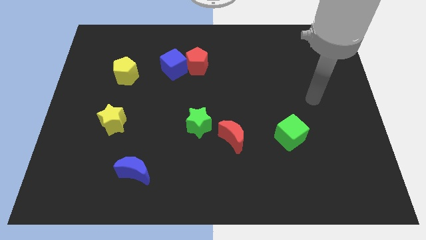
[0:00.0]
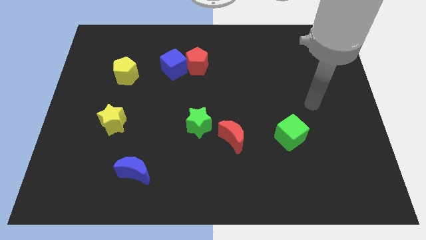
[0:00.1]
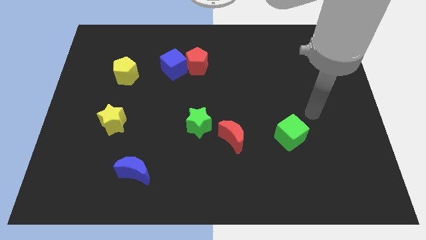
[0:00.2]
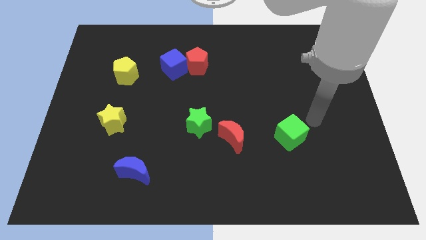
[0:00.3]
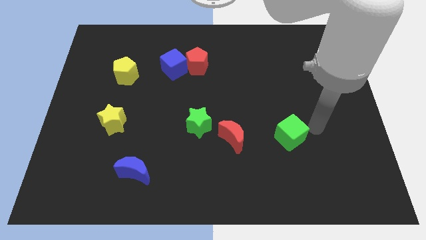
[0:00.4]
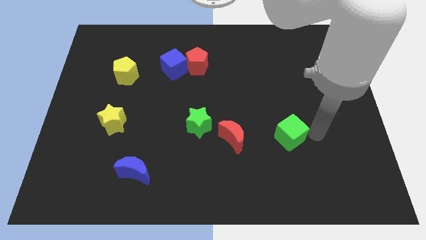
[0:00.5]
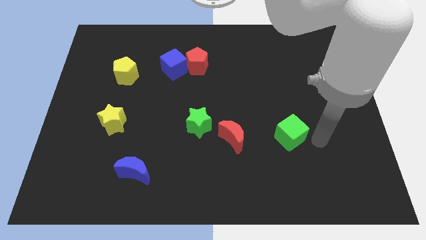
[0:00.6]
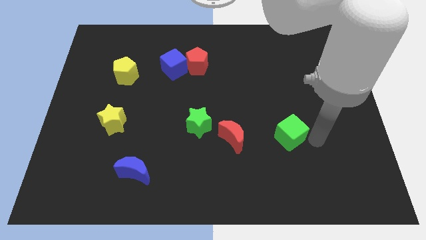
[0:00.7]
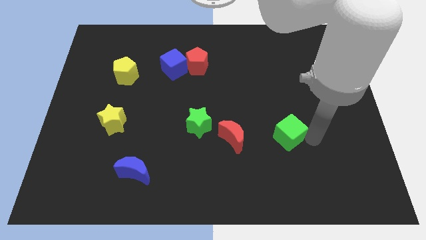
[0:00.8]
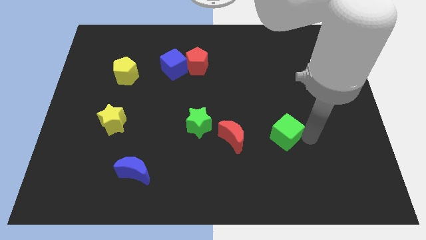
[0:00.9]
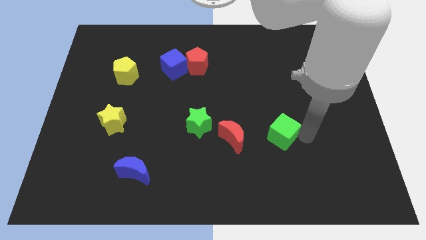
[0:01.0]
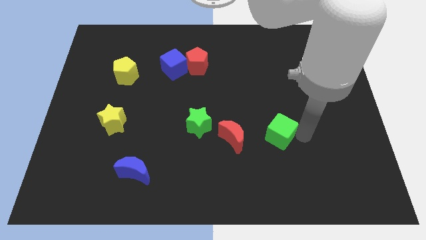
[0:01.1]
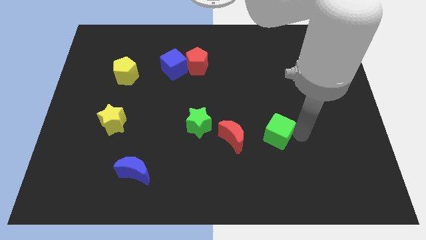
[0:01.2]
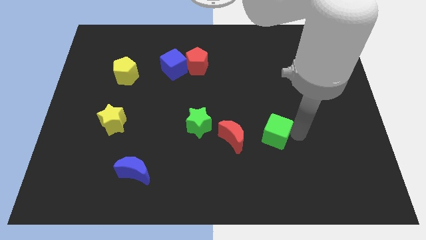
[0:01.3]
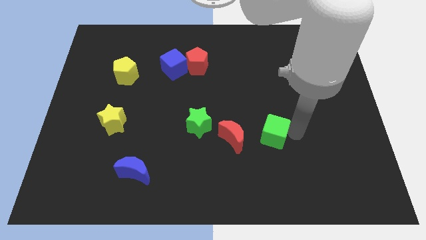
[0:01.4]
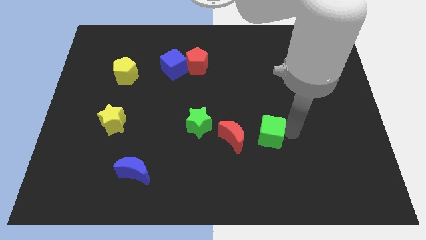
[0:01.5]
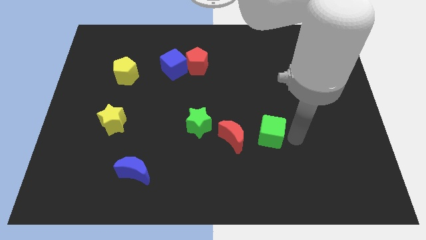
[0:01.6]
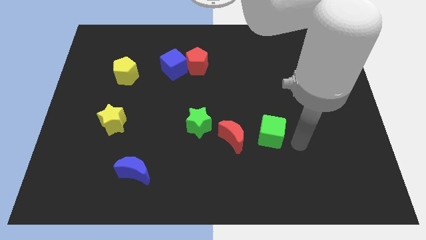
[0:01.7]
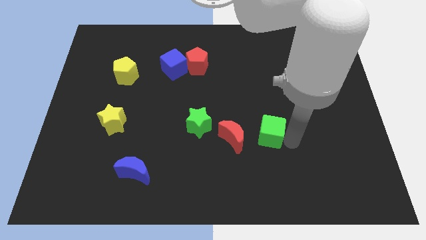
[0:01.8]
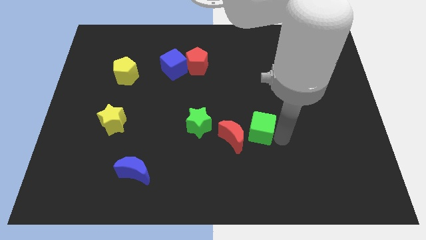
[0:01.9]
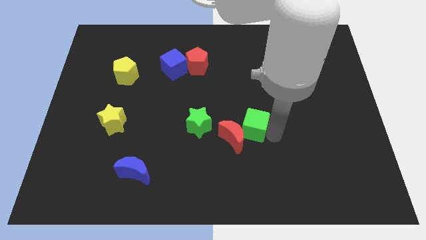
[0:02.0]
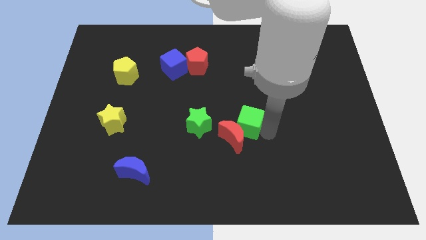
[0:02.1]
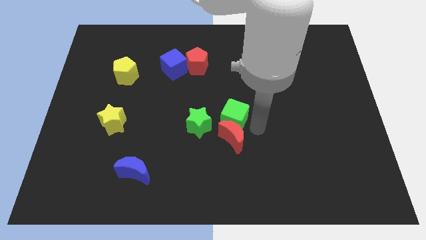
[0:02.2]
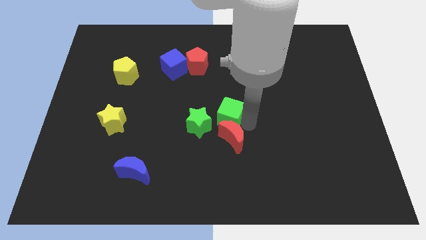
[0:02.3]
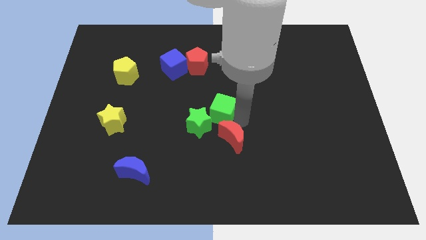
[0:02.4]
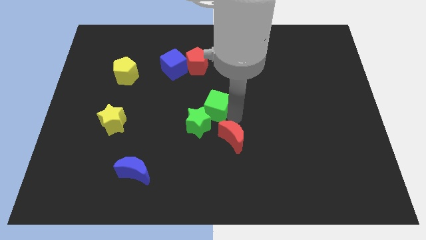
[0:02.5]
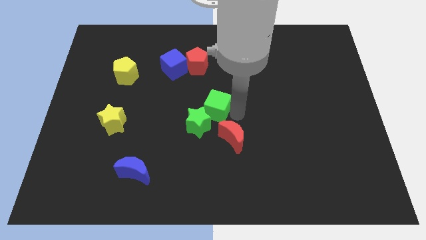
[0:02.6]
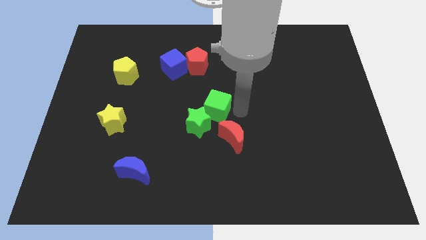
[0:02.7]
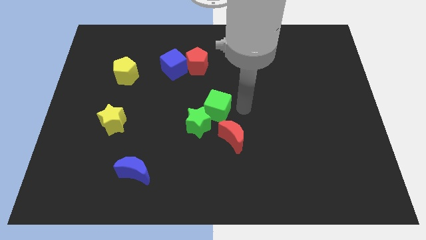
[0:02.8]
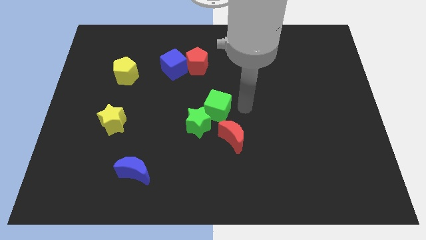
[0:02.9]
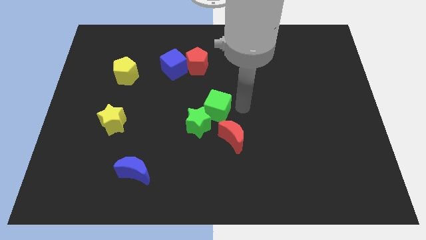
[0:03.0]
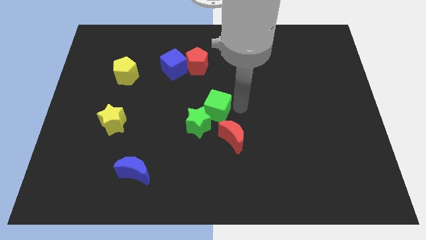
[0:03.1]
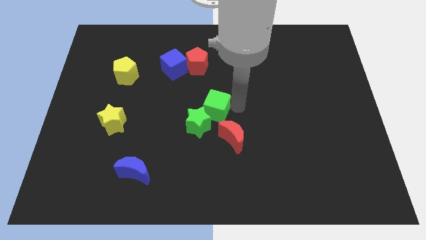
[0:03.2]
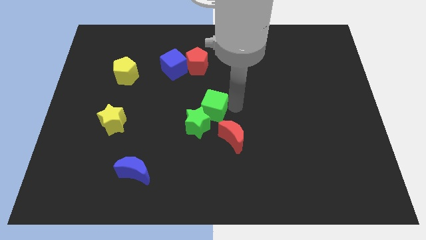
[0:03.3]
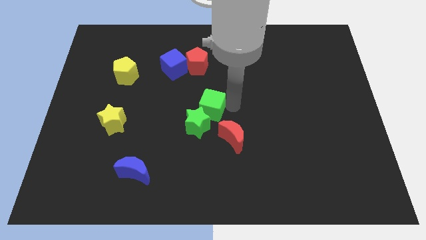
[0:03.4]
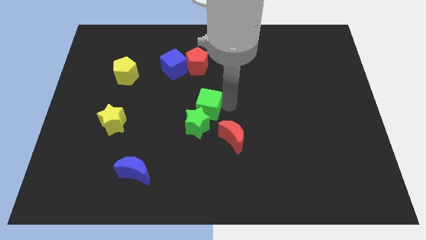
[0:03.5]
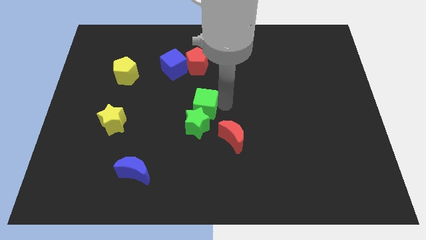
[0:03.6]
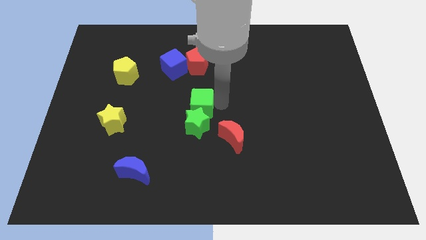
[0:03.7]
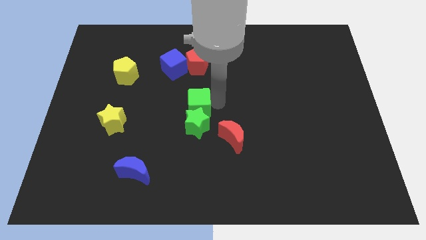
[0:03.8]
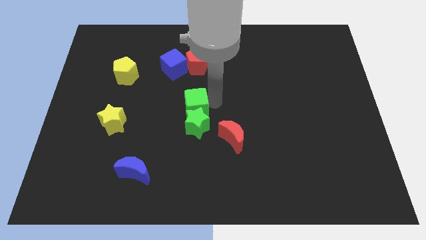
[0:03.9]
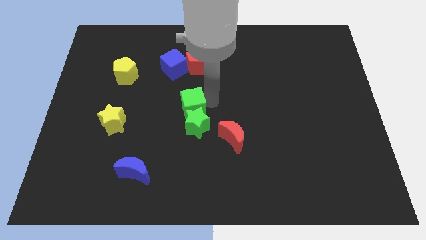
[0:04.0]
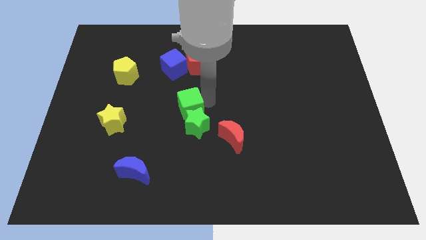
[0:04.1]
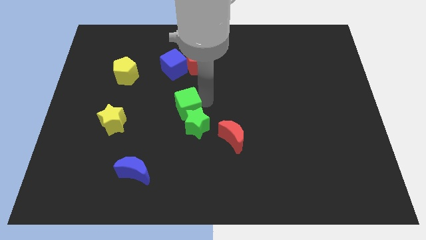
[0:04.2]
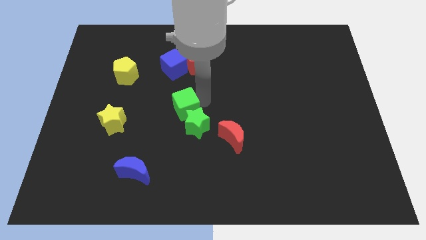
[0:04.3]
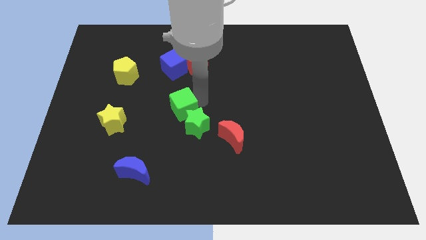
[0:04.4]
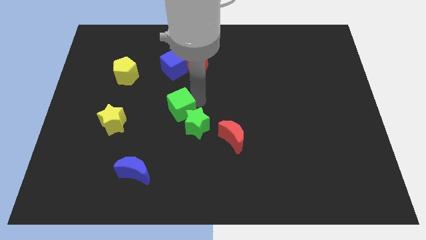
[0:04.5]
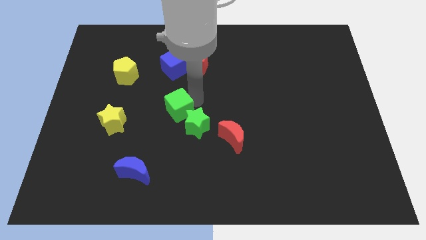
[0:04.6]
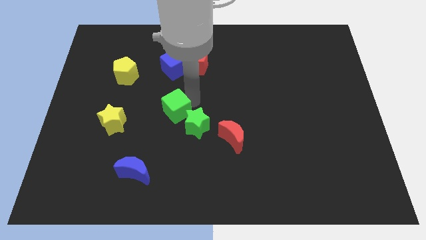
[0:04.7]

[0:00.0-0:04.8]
put the green cube to the right of the yellow star

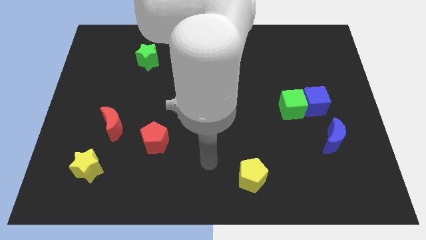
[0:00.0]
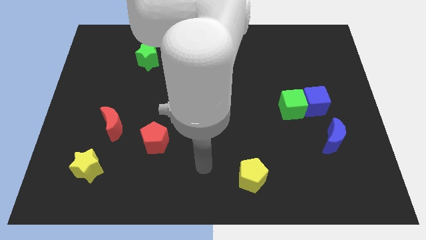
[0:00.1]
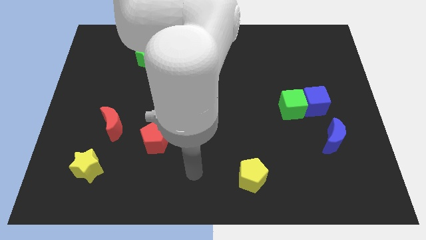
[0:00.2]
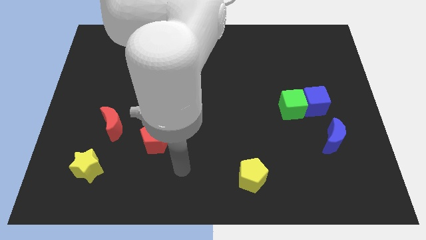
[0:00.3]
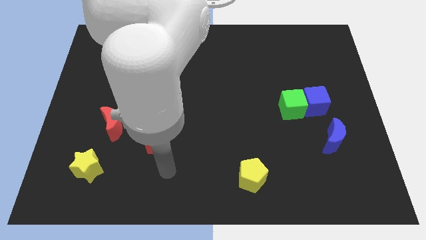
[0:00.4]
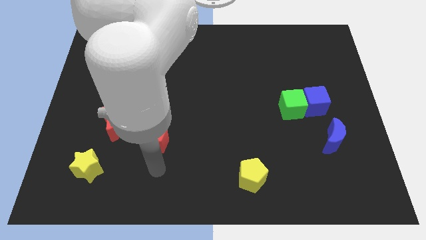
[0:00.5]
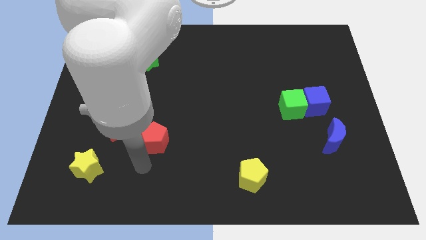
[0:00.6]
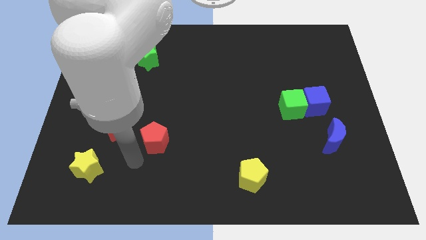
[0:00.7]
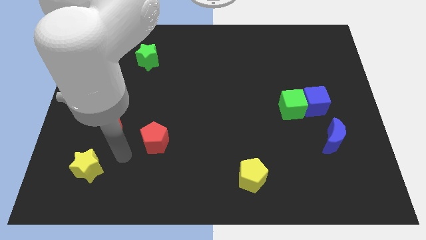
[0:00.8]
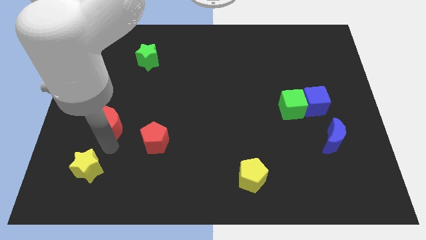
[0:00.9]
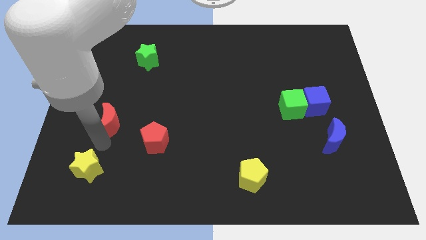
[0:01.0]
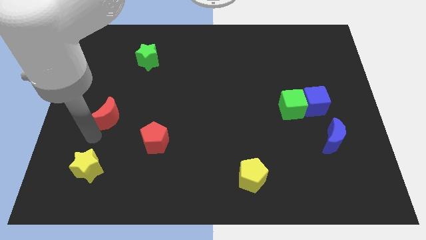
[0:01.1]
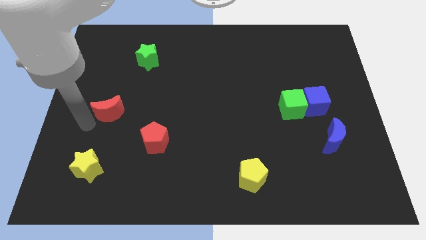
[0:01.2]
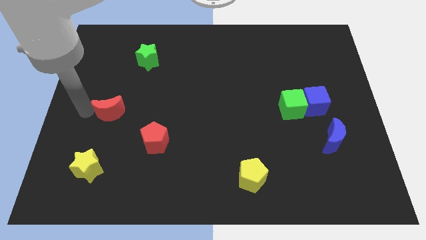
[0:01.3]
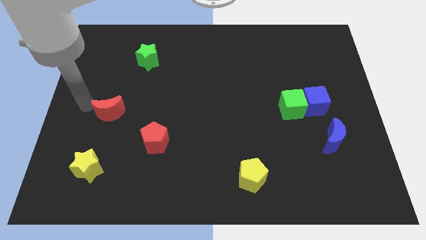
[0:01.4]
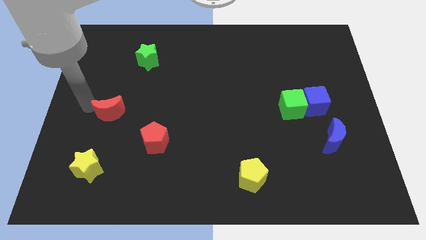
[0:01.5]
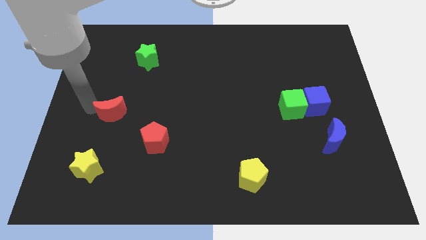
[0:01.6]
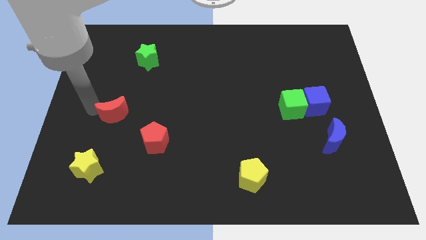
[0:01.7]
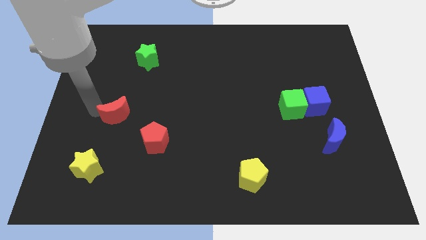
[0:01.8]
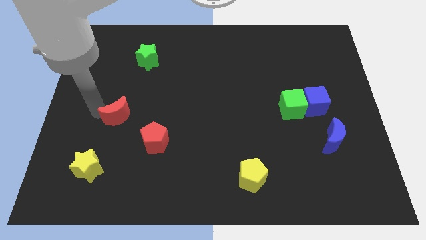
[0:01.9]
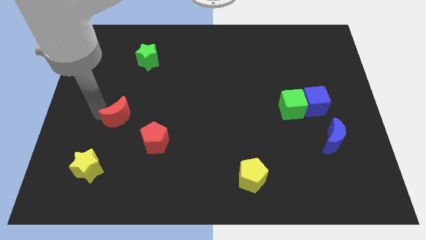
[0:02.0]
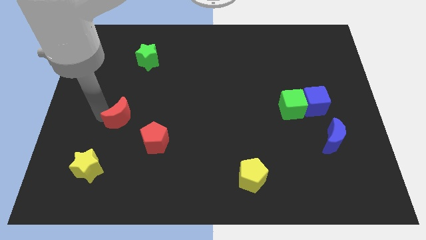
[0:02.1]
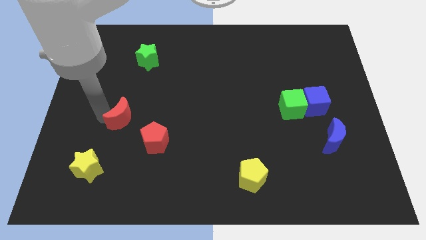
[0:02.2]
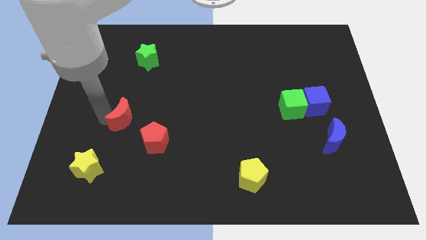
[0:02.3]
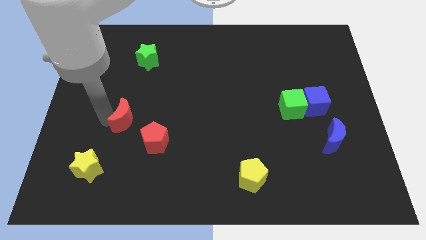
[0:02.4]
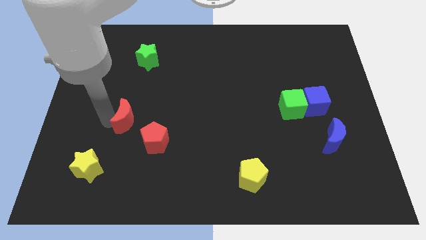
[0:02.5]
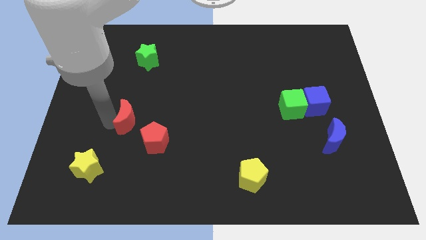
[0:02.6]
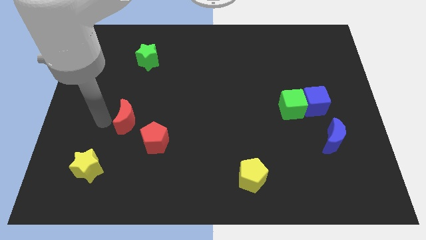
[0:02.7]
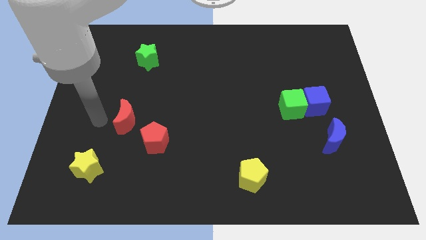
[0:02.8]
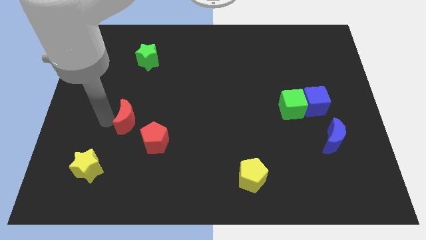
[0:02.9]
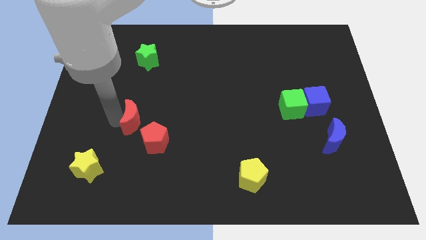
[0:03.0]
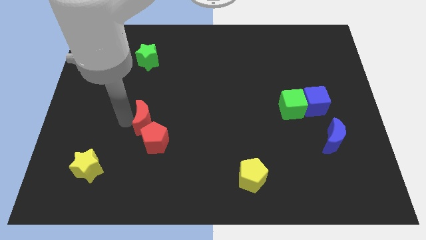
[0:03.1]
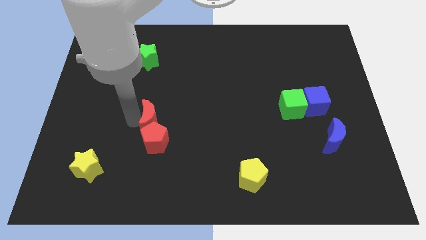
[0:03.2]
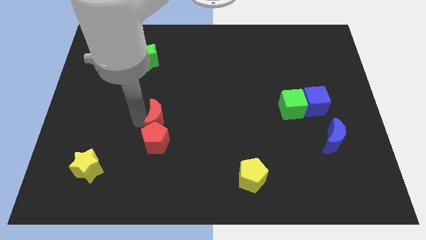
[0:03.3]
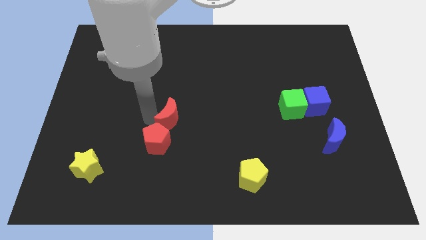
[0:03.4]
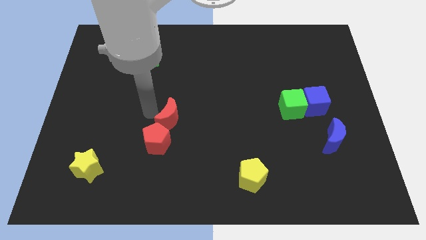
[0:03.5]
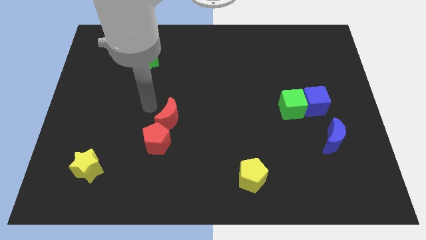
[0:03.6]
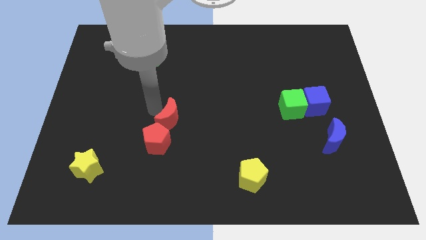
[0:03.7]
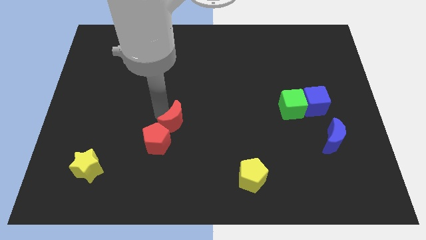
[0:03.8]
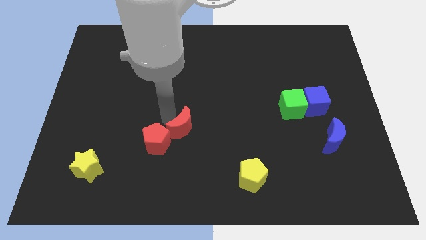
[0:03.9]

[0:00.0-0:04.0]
slide the red moon right of the red pentagon
